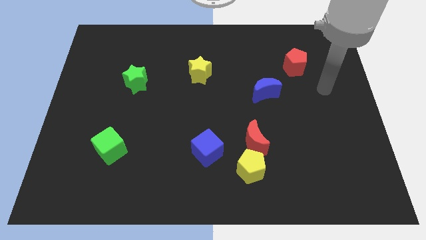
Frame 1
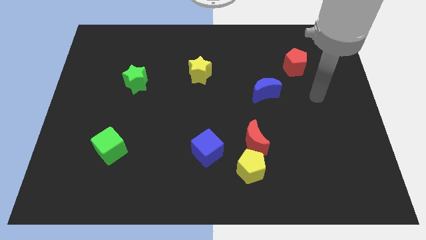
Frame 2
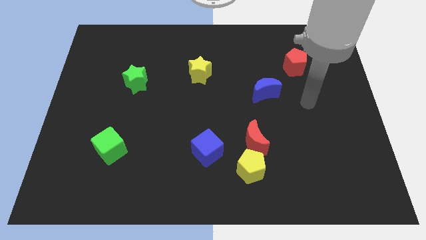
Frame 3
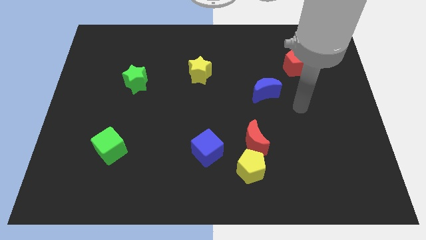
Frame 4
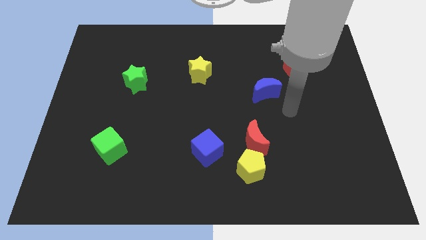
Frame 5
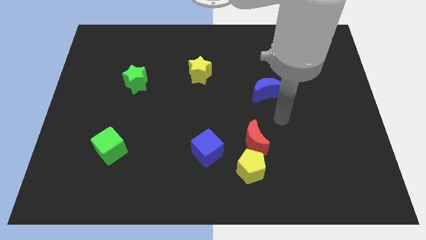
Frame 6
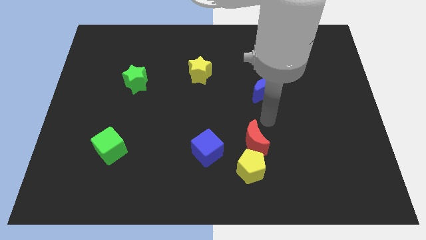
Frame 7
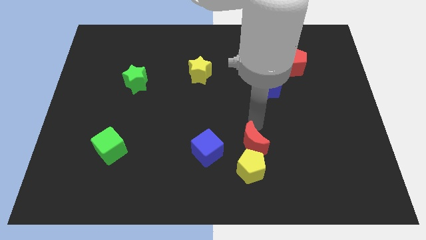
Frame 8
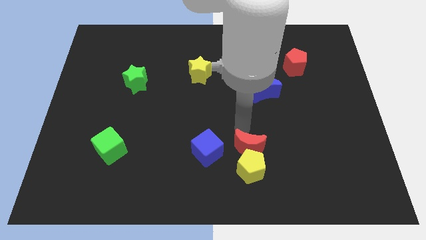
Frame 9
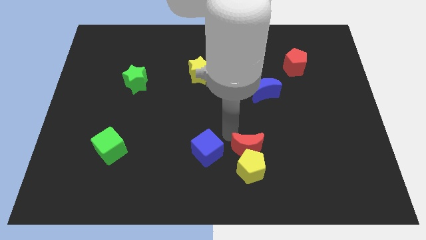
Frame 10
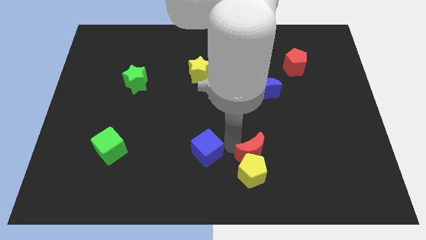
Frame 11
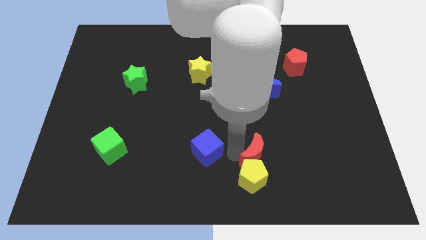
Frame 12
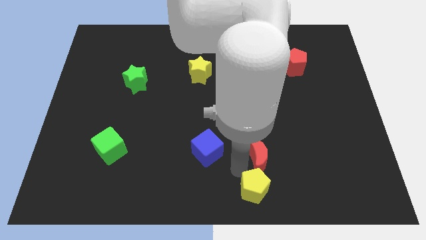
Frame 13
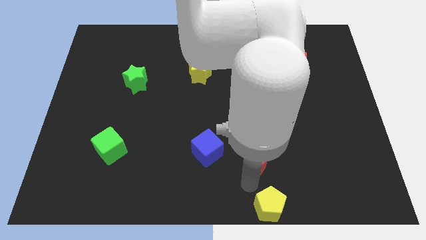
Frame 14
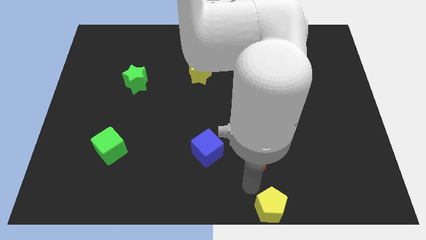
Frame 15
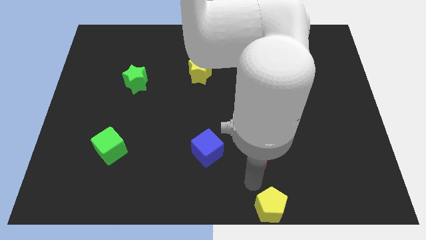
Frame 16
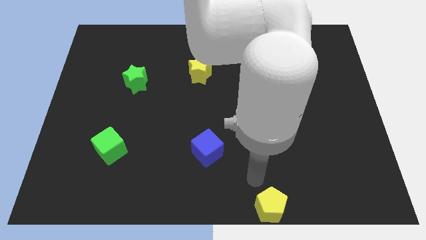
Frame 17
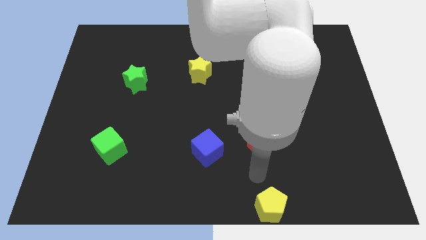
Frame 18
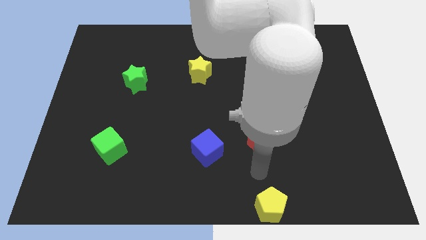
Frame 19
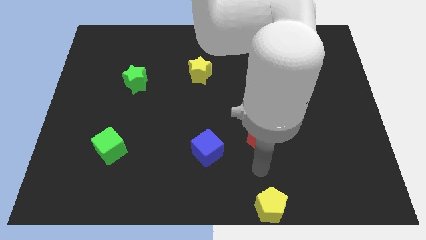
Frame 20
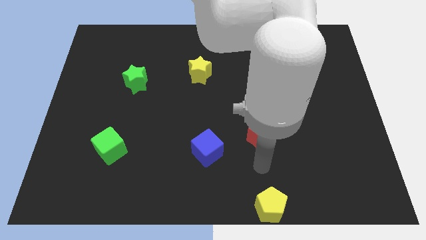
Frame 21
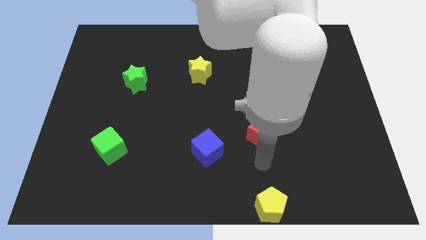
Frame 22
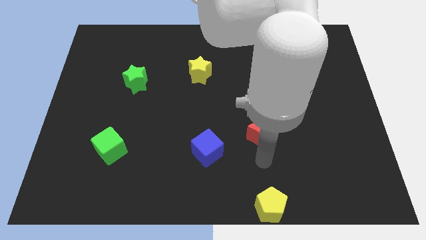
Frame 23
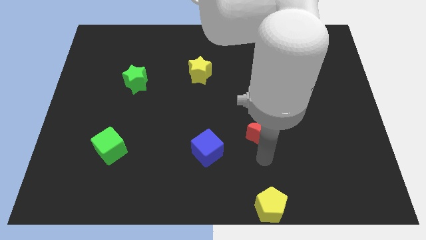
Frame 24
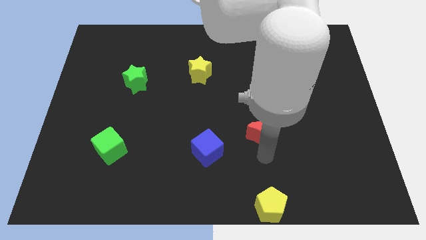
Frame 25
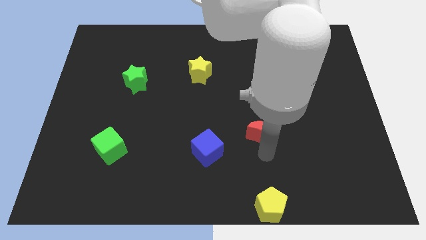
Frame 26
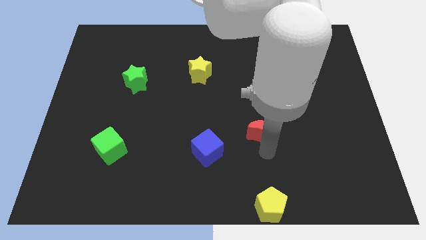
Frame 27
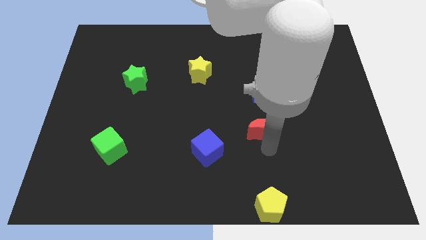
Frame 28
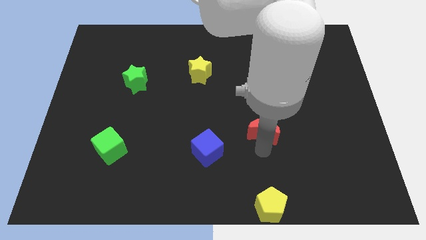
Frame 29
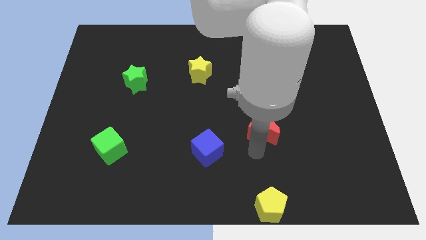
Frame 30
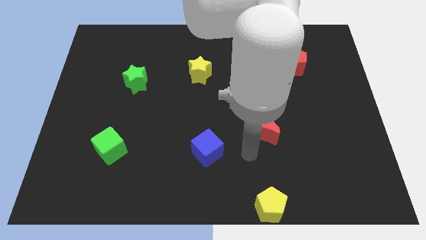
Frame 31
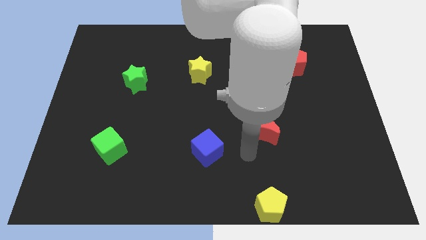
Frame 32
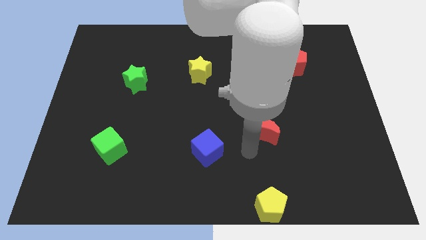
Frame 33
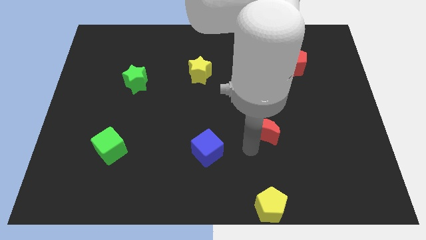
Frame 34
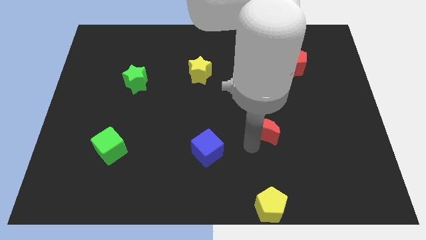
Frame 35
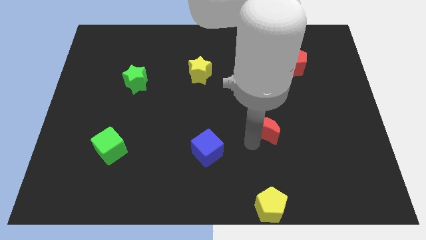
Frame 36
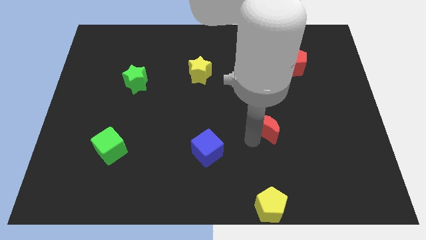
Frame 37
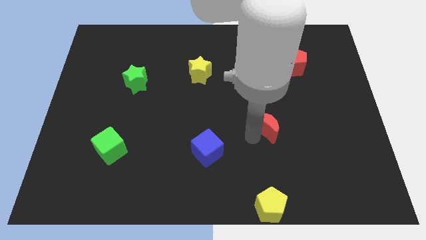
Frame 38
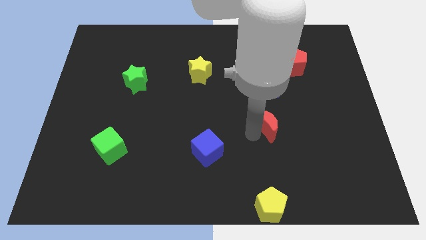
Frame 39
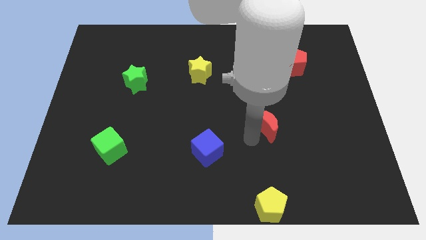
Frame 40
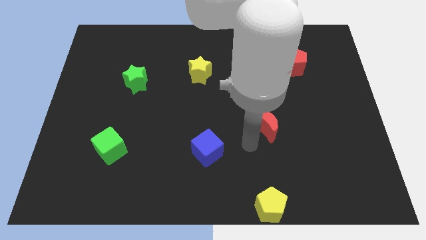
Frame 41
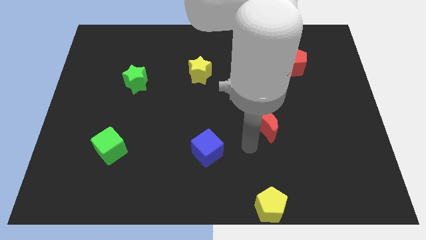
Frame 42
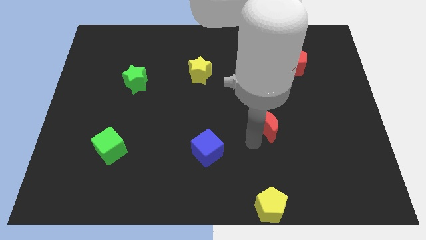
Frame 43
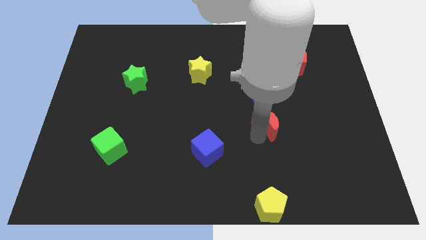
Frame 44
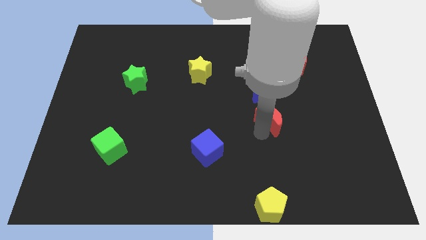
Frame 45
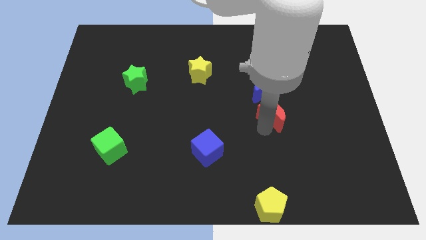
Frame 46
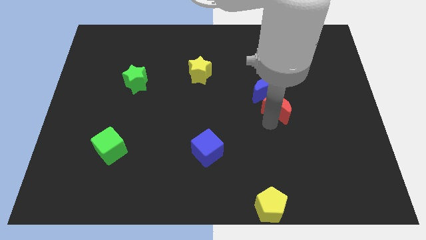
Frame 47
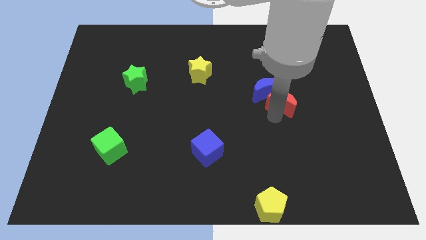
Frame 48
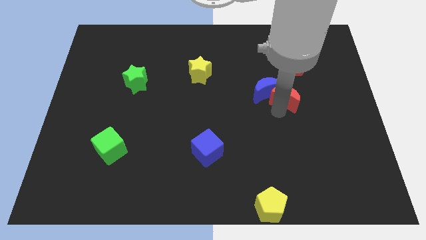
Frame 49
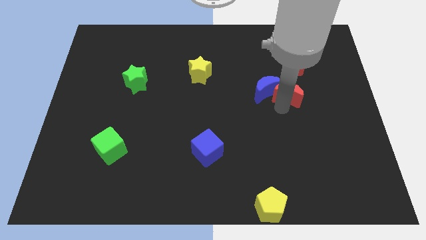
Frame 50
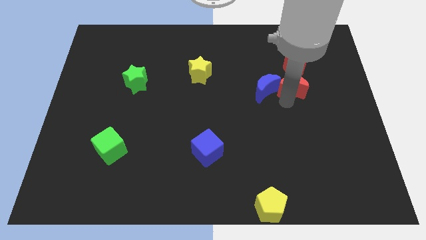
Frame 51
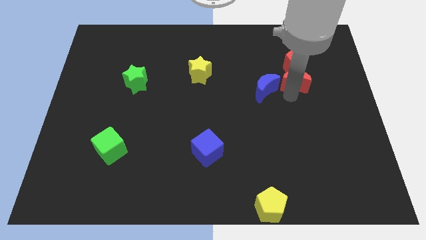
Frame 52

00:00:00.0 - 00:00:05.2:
move the red moon next to the red pentagon

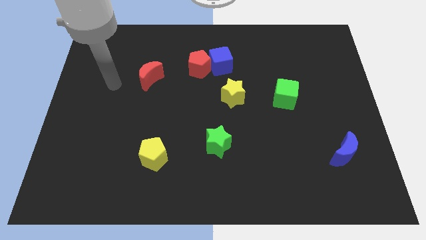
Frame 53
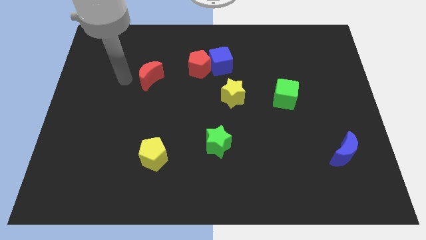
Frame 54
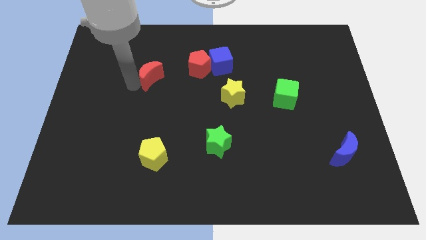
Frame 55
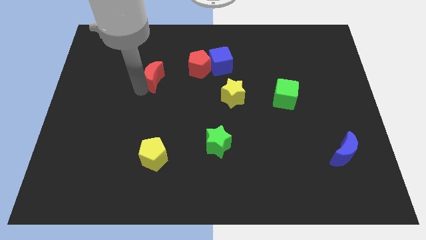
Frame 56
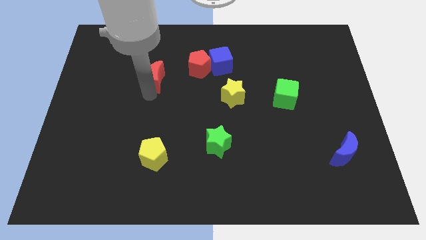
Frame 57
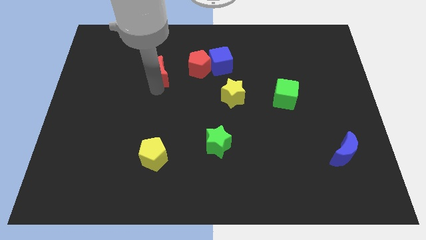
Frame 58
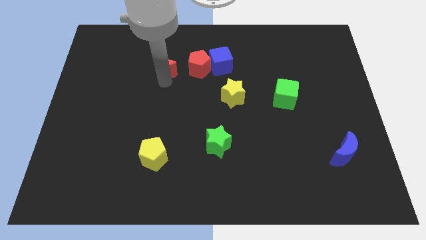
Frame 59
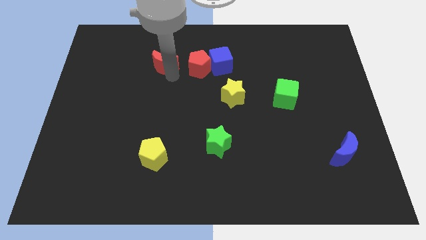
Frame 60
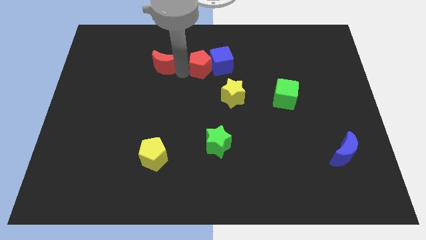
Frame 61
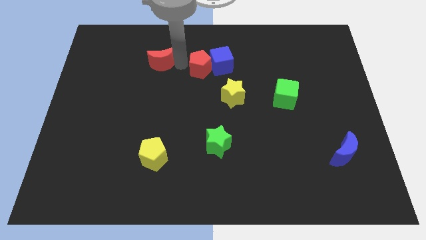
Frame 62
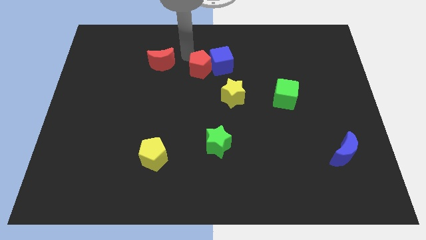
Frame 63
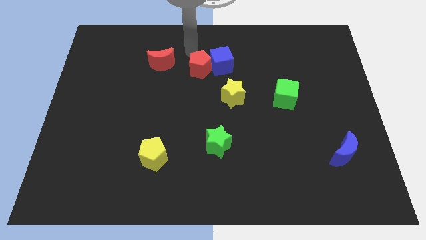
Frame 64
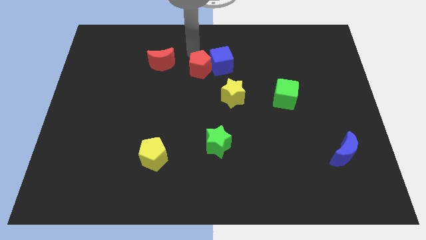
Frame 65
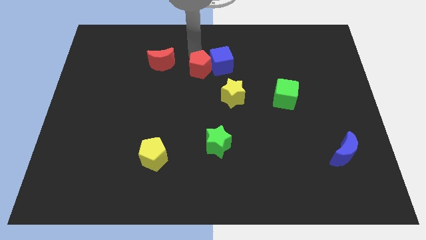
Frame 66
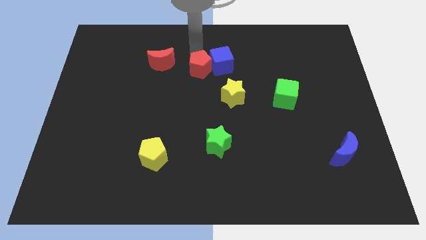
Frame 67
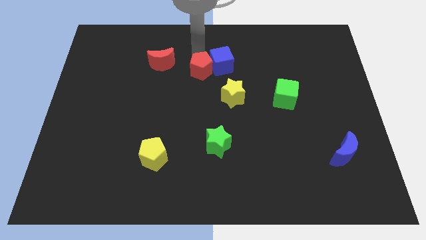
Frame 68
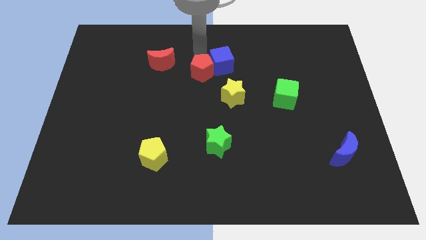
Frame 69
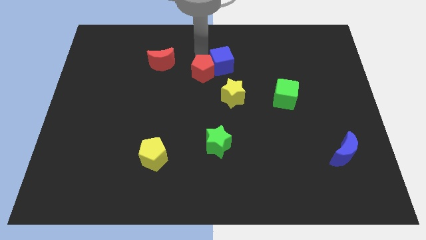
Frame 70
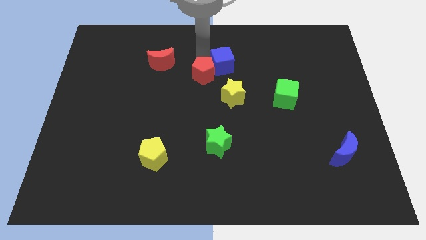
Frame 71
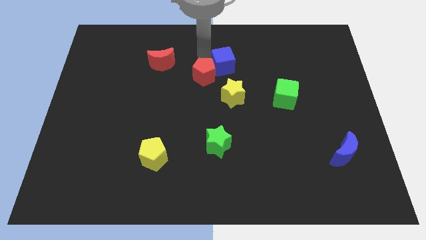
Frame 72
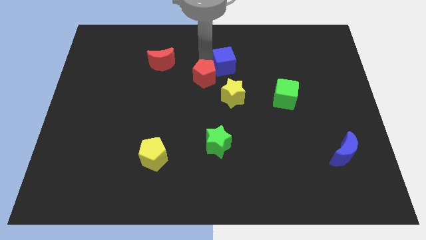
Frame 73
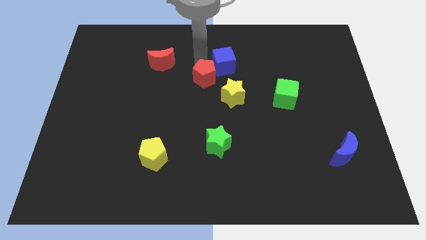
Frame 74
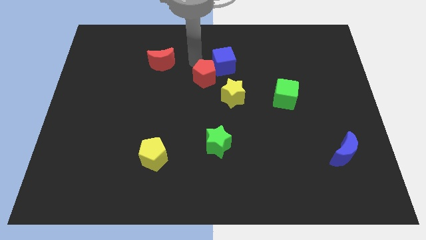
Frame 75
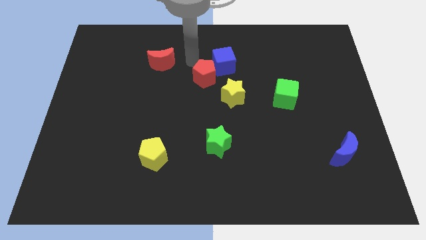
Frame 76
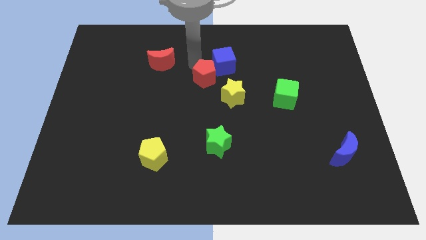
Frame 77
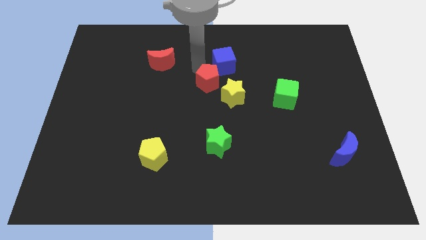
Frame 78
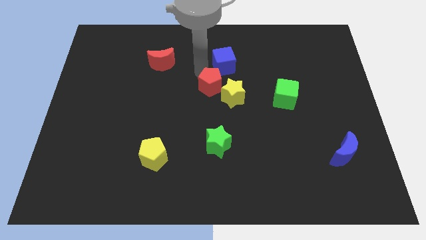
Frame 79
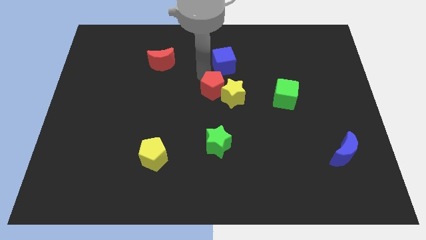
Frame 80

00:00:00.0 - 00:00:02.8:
push the red pentagon close to the yellow star
